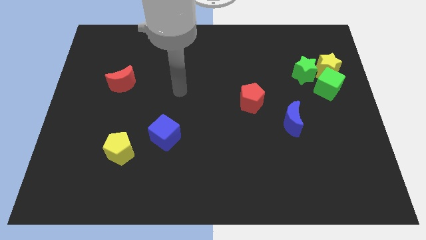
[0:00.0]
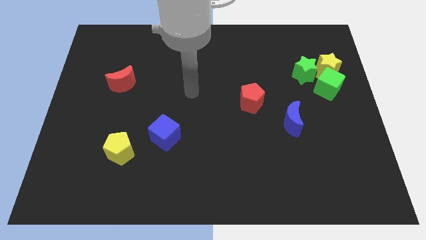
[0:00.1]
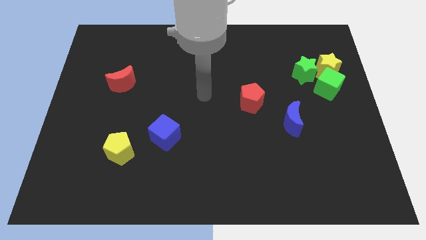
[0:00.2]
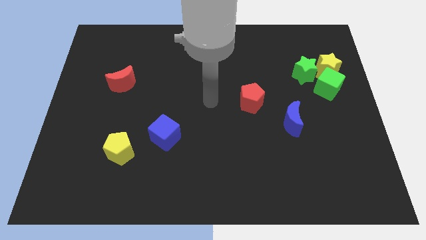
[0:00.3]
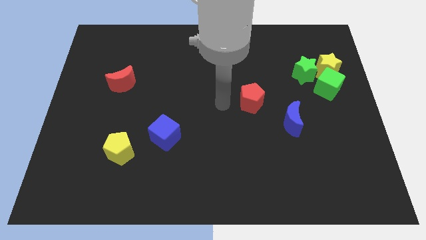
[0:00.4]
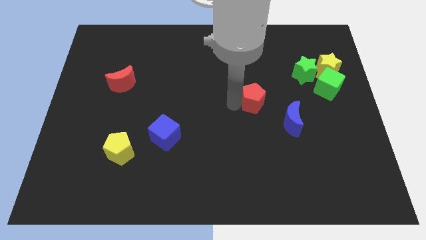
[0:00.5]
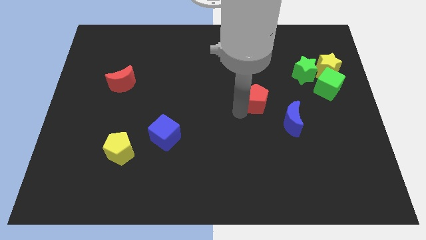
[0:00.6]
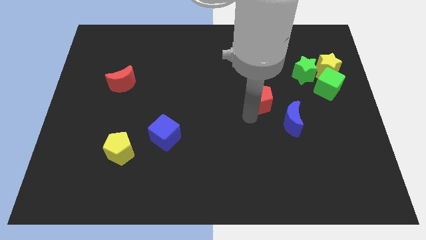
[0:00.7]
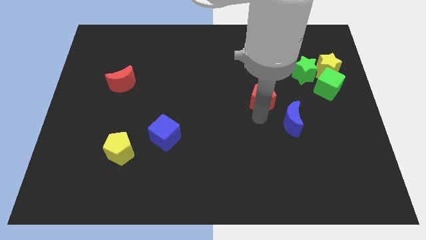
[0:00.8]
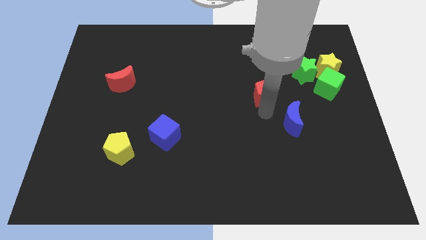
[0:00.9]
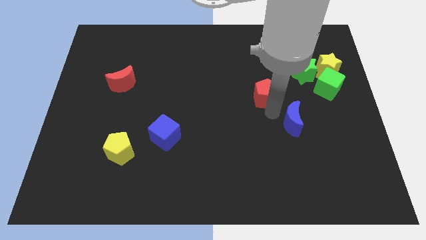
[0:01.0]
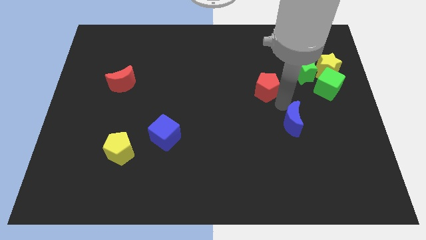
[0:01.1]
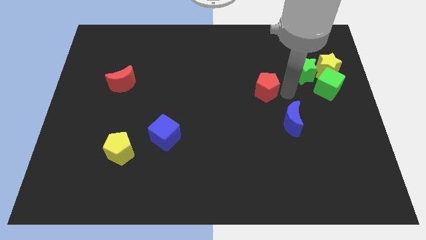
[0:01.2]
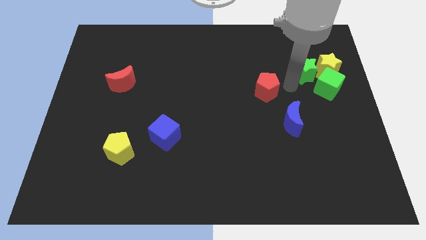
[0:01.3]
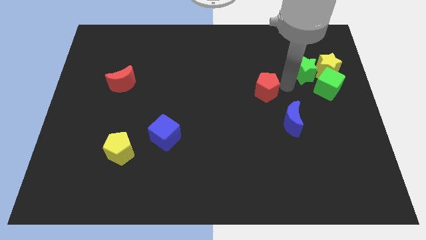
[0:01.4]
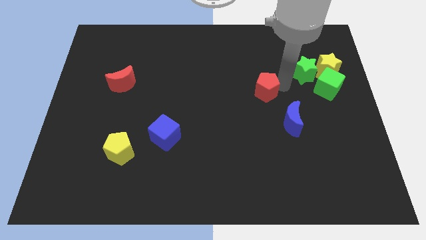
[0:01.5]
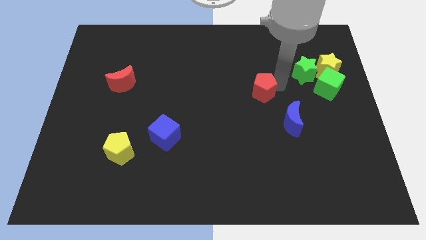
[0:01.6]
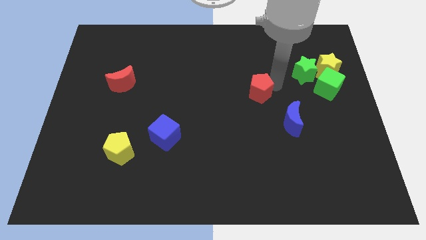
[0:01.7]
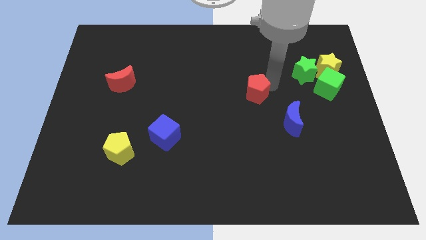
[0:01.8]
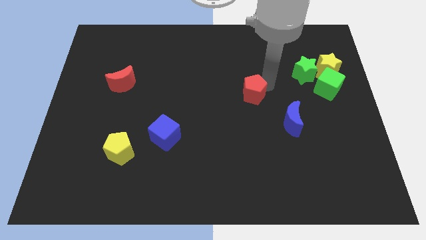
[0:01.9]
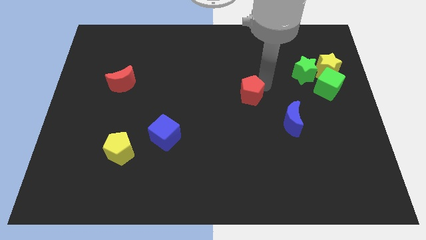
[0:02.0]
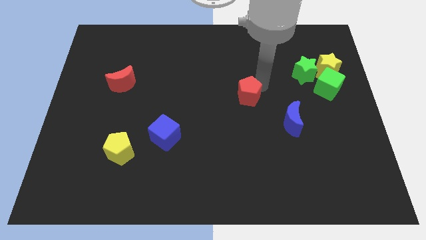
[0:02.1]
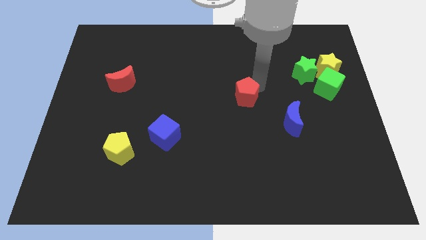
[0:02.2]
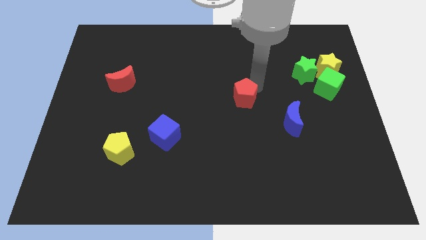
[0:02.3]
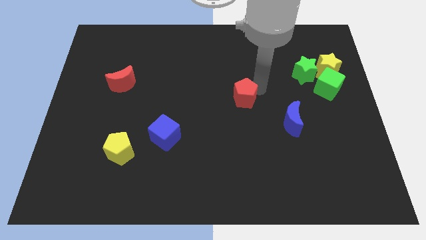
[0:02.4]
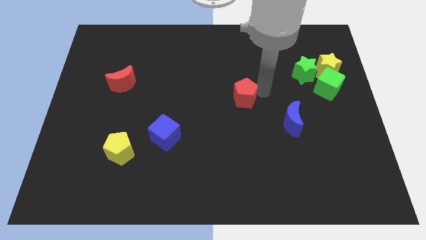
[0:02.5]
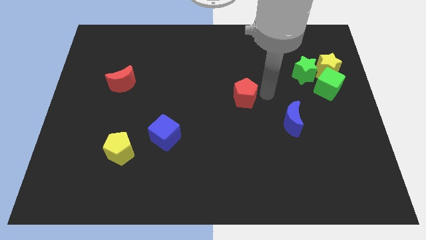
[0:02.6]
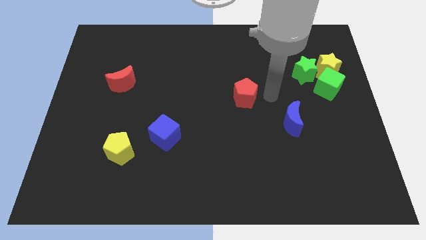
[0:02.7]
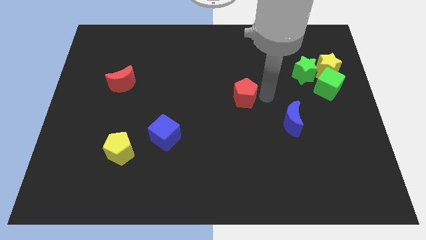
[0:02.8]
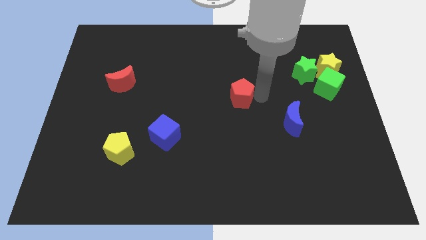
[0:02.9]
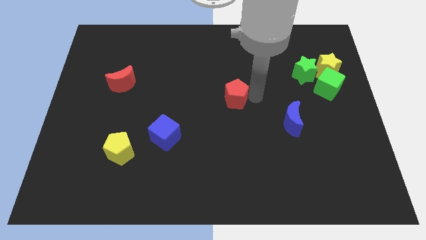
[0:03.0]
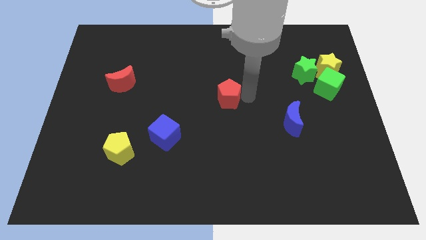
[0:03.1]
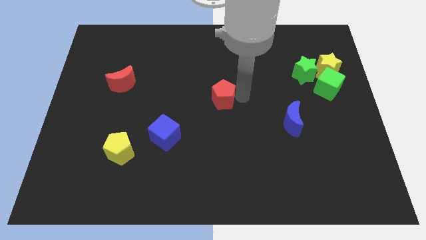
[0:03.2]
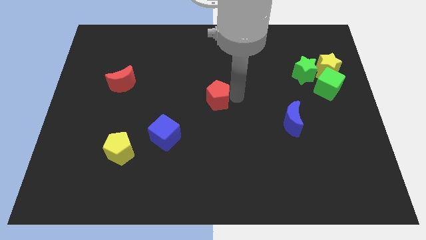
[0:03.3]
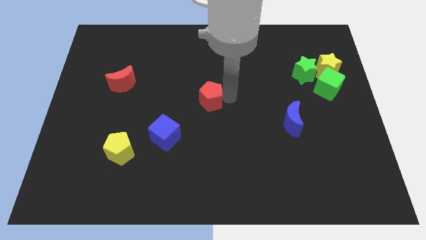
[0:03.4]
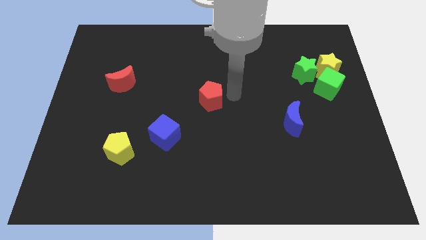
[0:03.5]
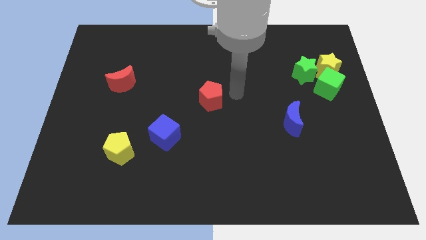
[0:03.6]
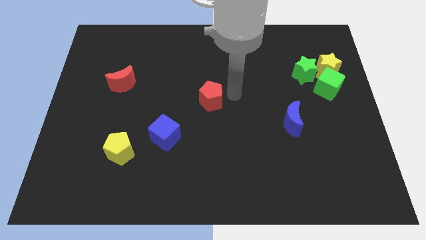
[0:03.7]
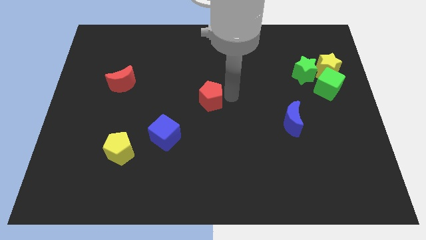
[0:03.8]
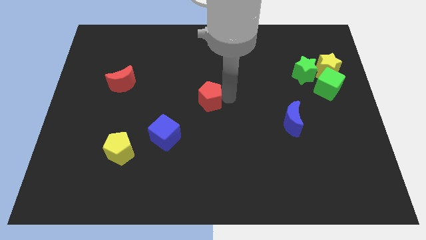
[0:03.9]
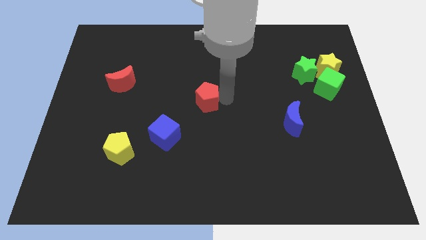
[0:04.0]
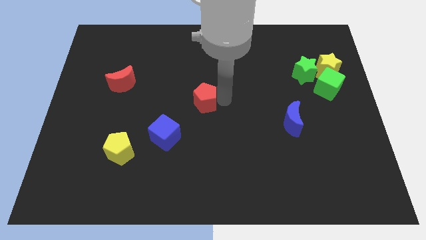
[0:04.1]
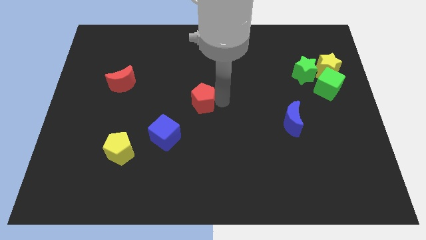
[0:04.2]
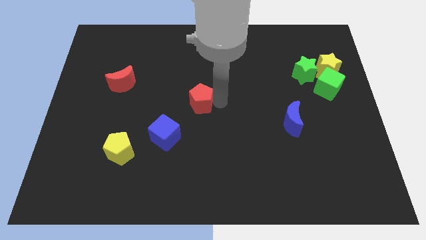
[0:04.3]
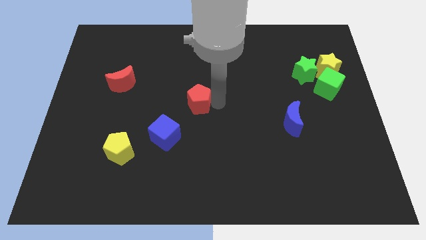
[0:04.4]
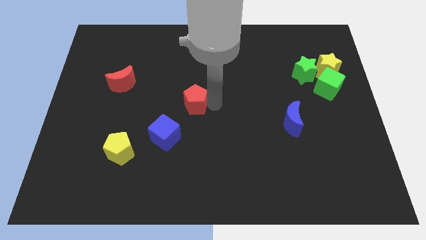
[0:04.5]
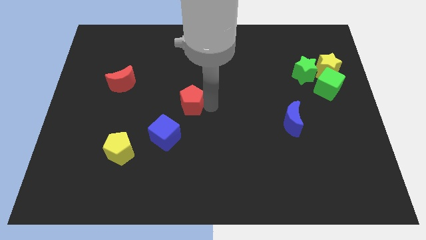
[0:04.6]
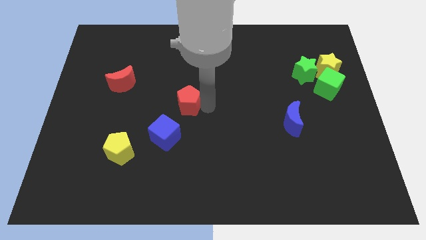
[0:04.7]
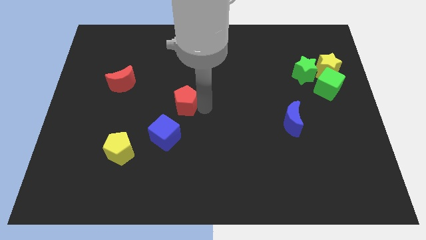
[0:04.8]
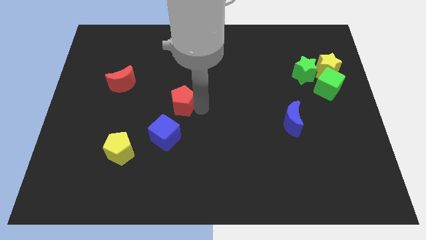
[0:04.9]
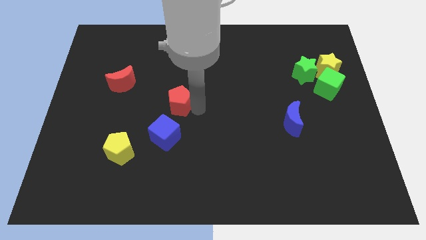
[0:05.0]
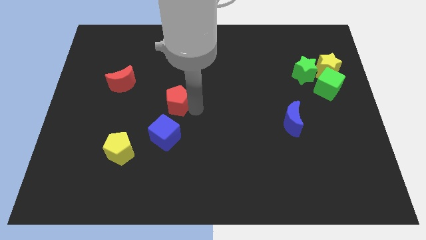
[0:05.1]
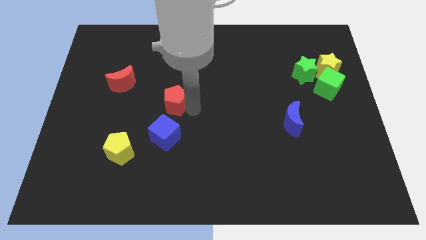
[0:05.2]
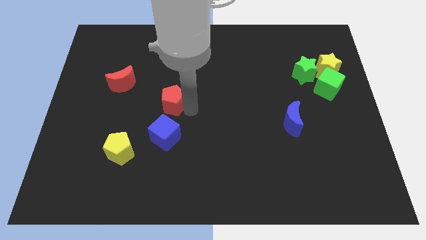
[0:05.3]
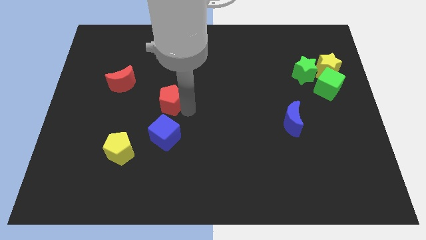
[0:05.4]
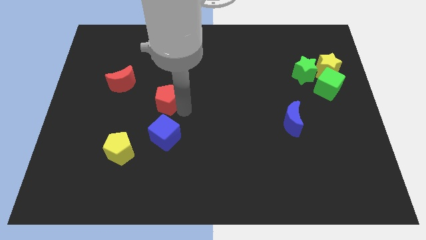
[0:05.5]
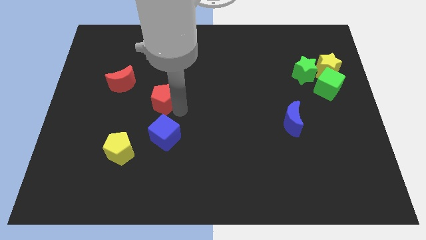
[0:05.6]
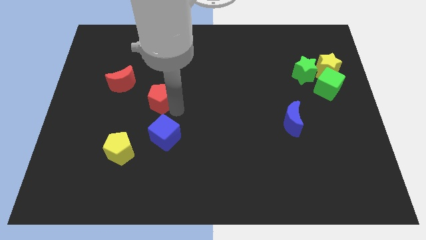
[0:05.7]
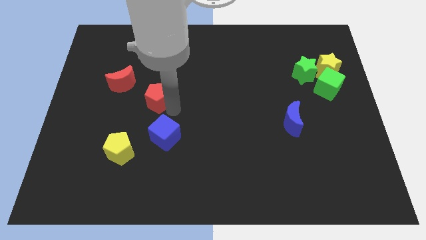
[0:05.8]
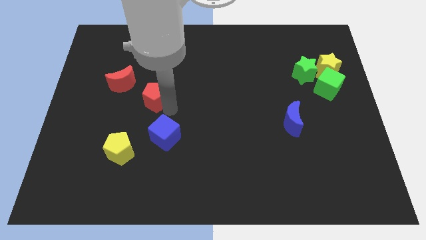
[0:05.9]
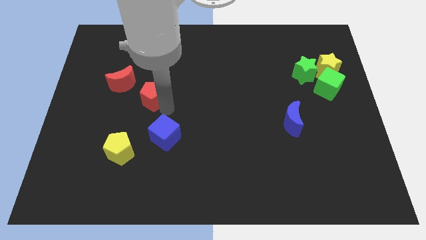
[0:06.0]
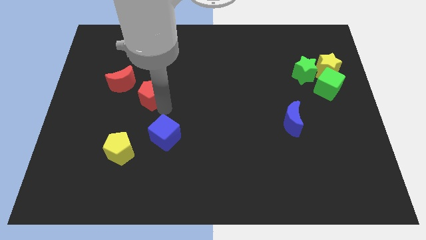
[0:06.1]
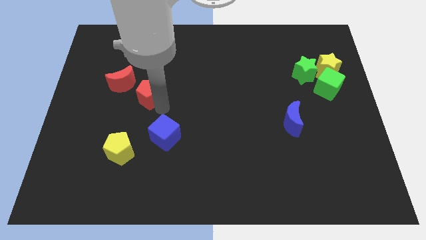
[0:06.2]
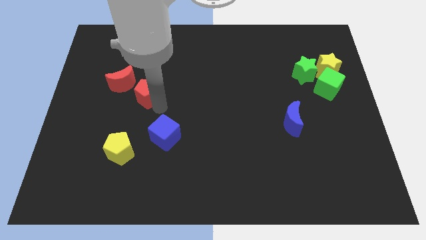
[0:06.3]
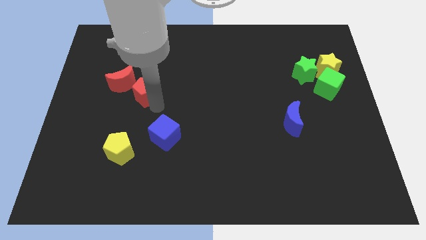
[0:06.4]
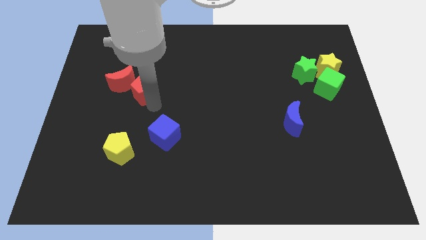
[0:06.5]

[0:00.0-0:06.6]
put the red pentagon next to the red moon

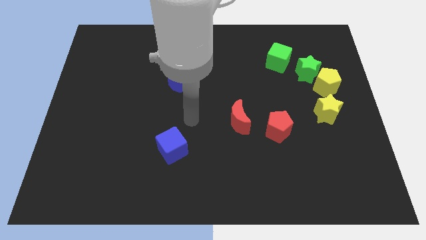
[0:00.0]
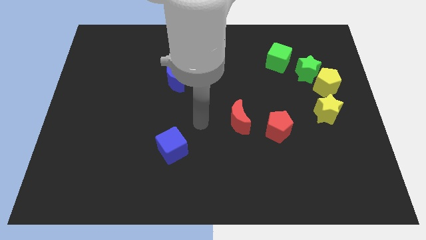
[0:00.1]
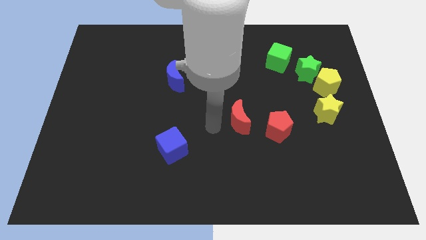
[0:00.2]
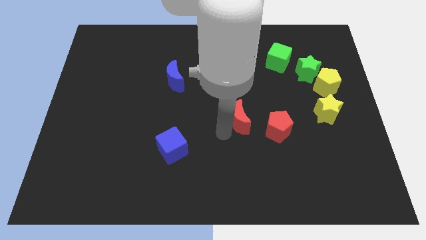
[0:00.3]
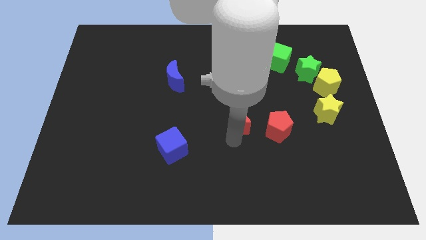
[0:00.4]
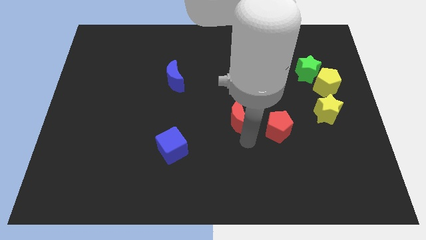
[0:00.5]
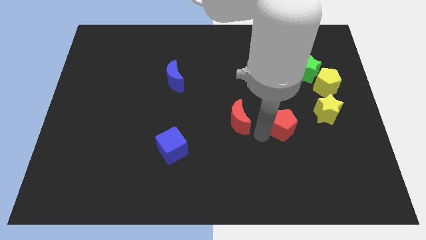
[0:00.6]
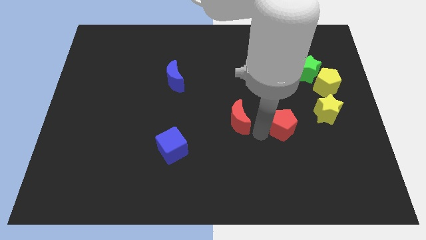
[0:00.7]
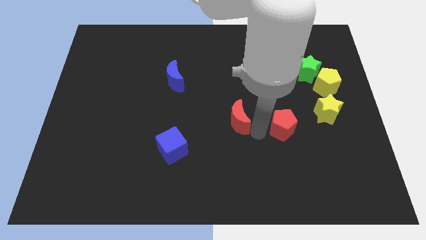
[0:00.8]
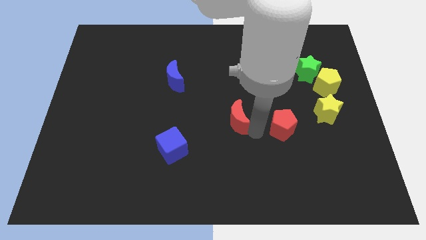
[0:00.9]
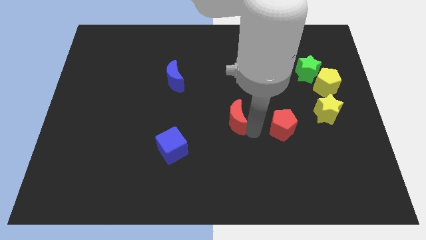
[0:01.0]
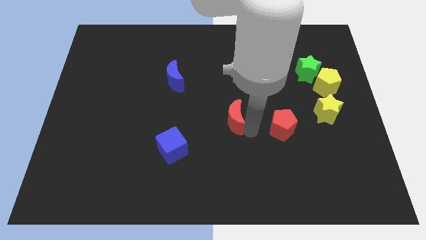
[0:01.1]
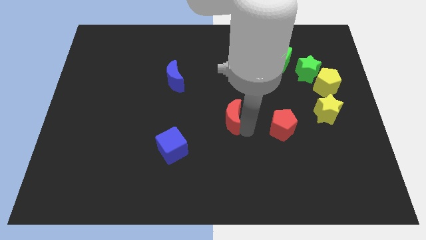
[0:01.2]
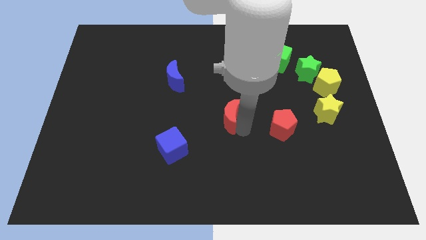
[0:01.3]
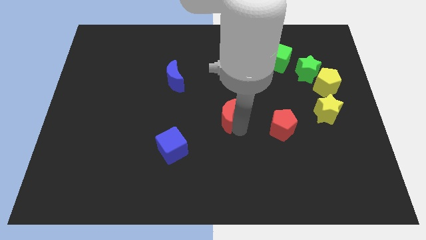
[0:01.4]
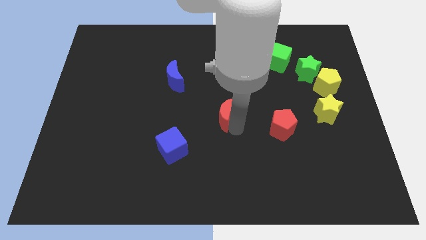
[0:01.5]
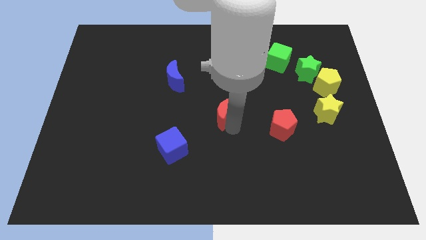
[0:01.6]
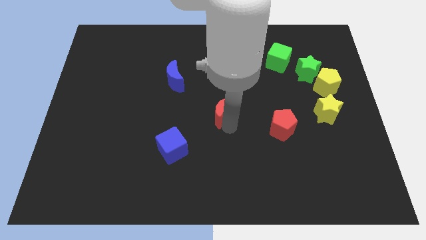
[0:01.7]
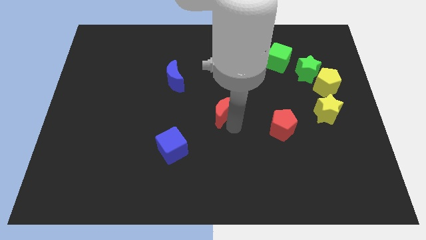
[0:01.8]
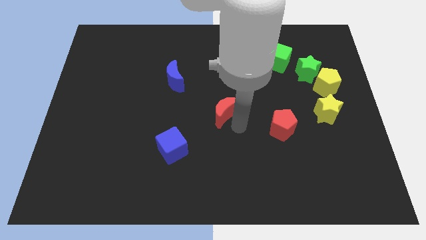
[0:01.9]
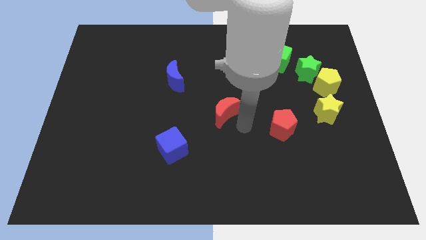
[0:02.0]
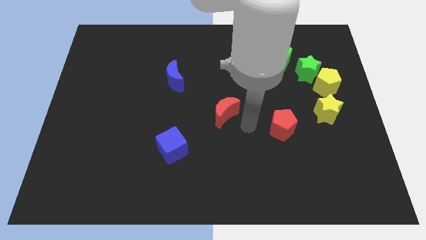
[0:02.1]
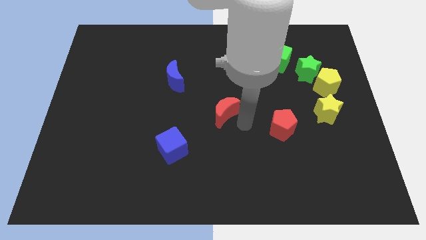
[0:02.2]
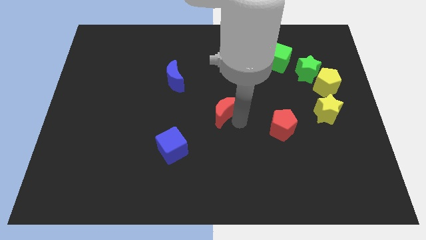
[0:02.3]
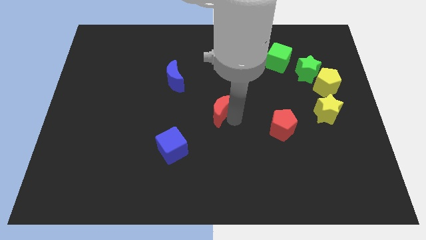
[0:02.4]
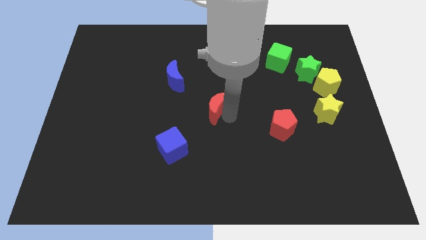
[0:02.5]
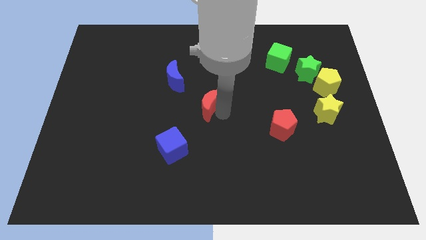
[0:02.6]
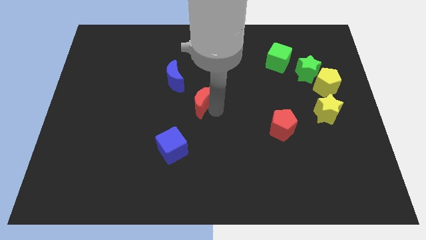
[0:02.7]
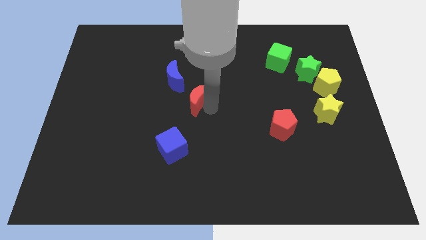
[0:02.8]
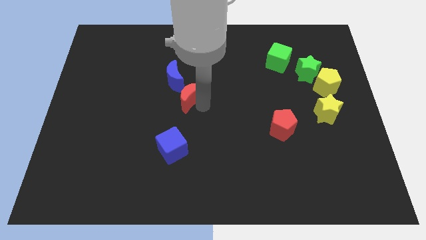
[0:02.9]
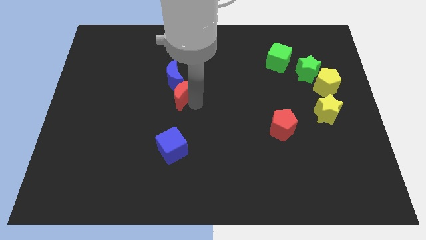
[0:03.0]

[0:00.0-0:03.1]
move the red moon towards the blue moon
